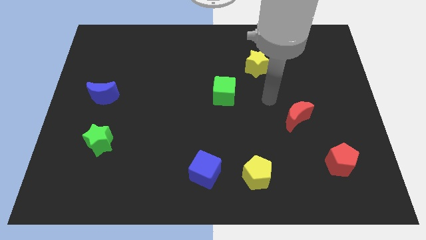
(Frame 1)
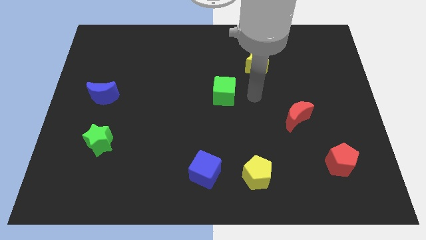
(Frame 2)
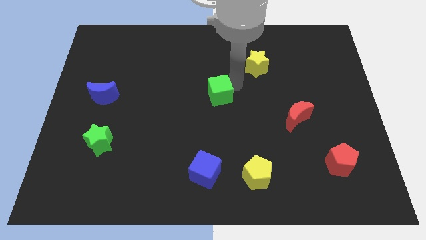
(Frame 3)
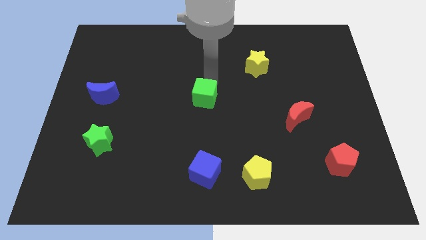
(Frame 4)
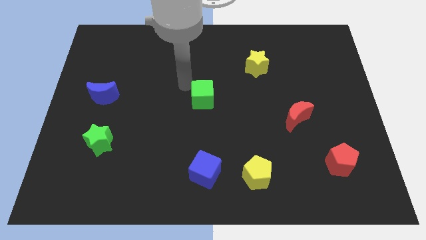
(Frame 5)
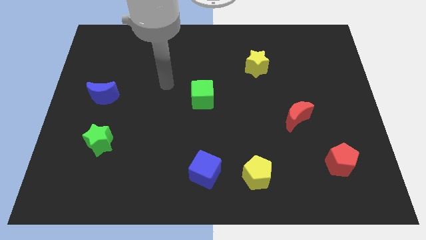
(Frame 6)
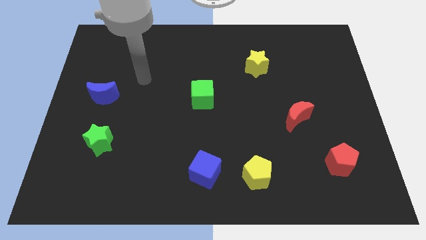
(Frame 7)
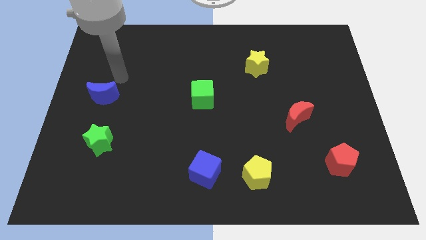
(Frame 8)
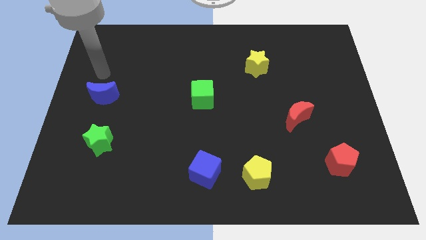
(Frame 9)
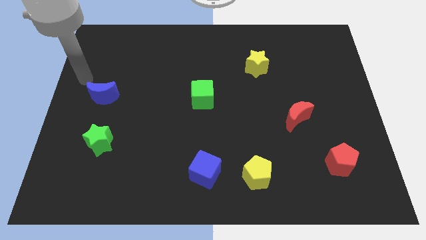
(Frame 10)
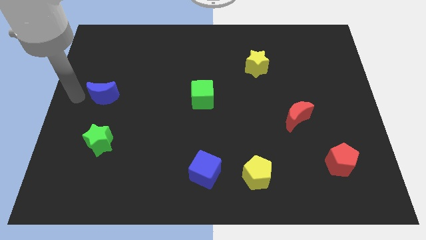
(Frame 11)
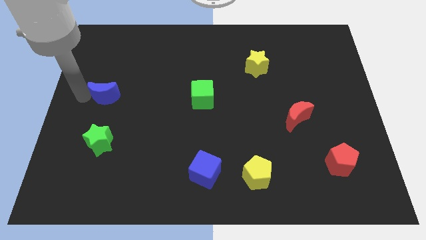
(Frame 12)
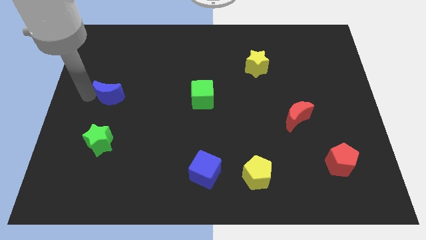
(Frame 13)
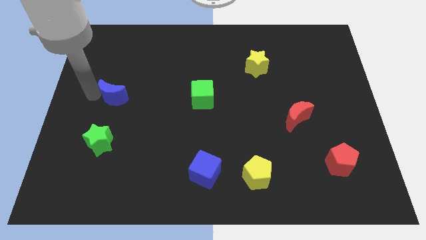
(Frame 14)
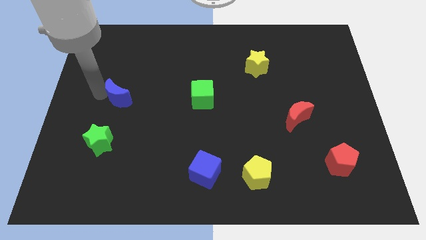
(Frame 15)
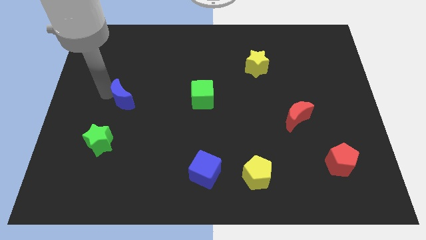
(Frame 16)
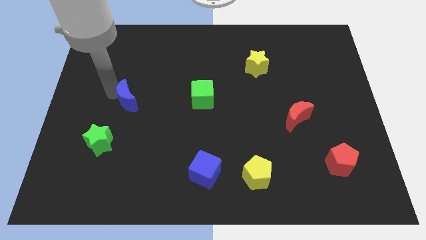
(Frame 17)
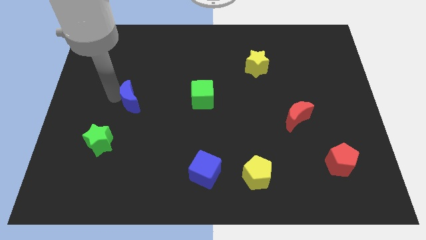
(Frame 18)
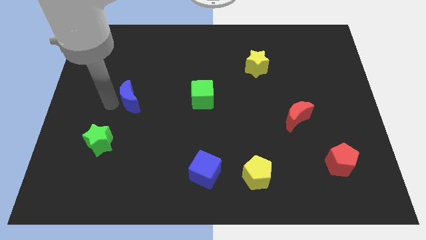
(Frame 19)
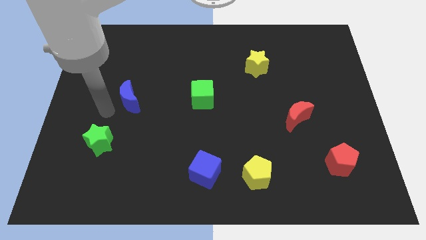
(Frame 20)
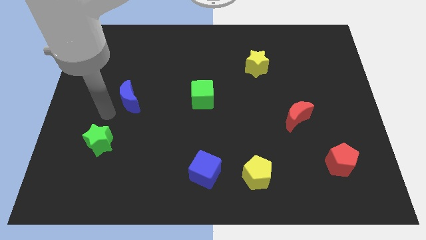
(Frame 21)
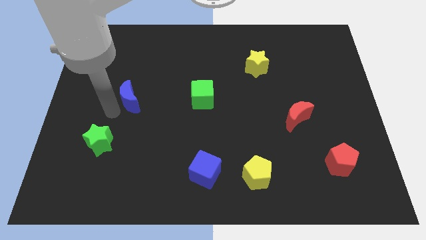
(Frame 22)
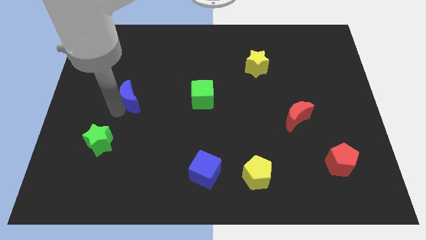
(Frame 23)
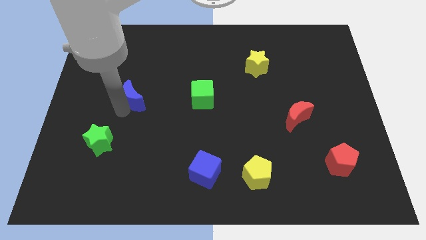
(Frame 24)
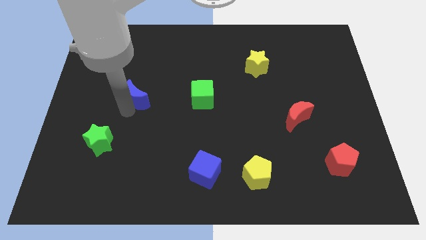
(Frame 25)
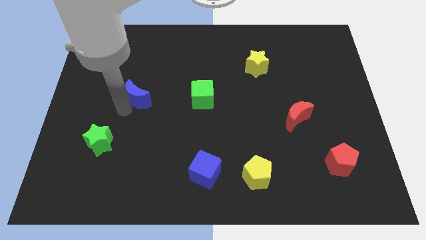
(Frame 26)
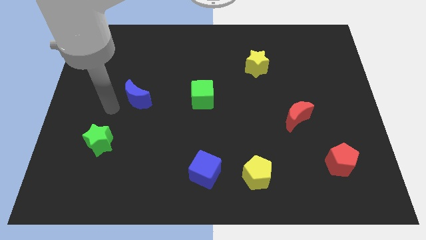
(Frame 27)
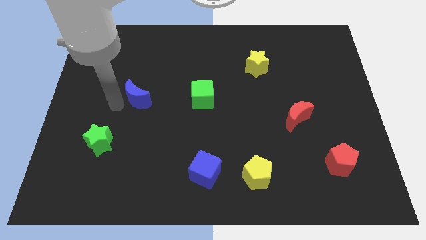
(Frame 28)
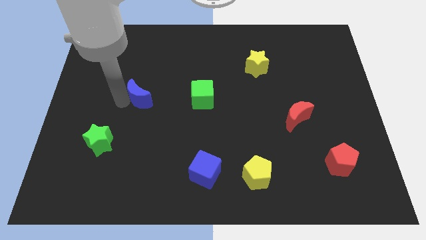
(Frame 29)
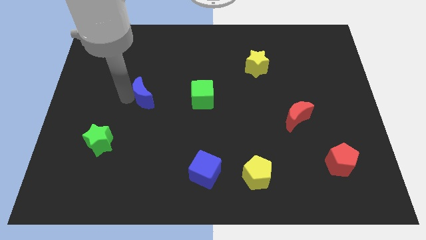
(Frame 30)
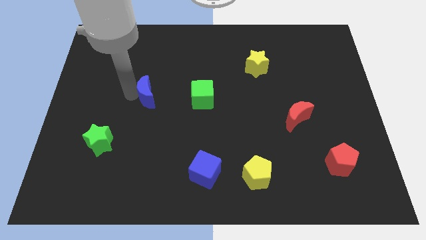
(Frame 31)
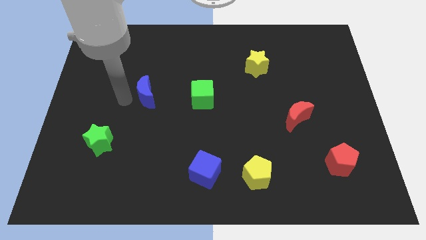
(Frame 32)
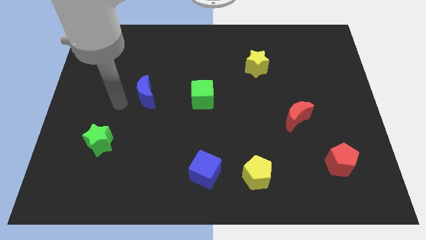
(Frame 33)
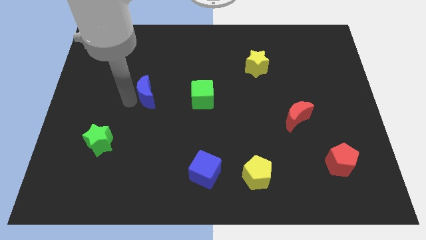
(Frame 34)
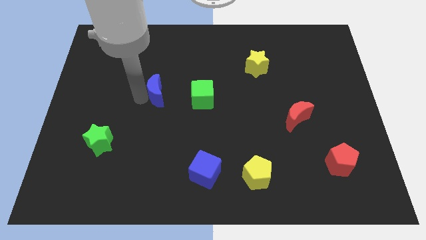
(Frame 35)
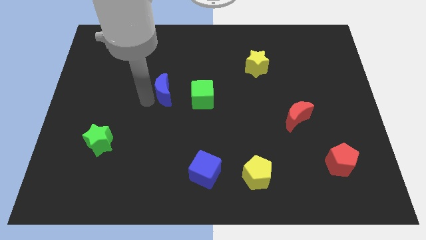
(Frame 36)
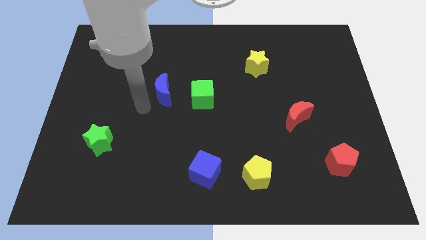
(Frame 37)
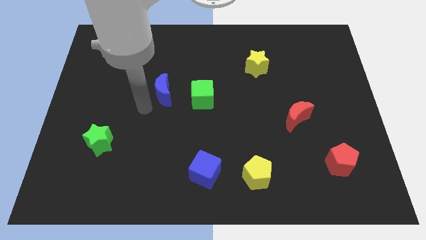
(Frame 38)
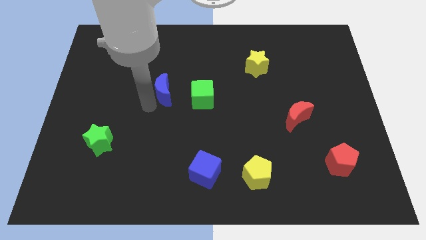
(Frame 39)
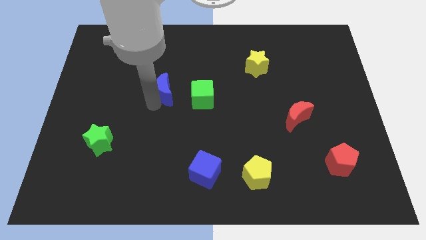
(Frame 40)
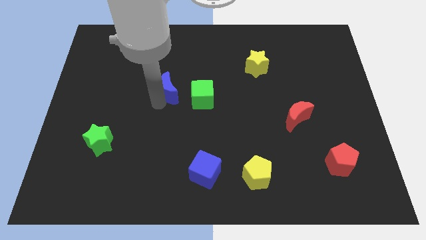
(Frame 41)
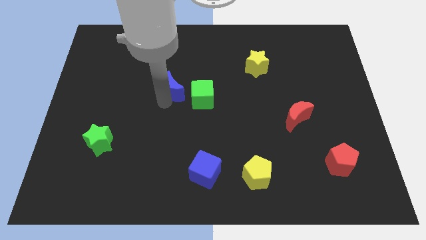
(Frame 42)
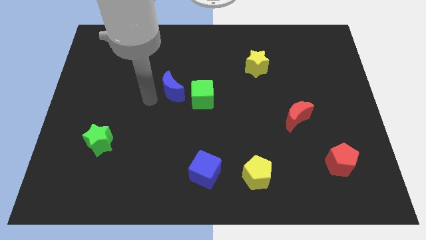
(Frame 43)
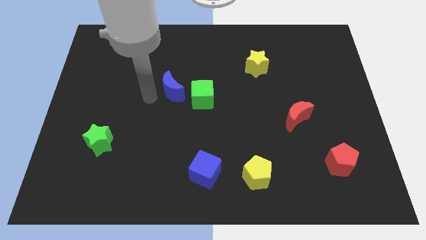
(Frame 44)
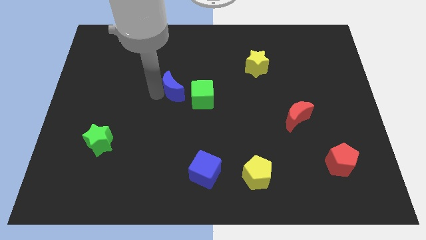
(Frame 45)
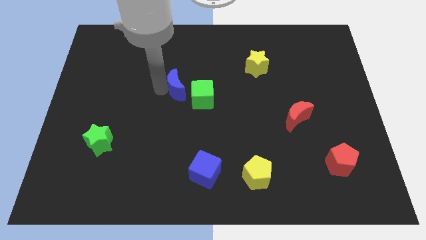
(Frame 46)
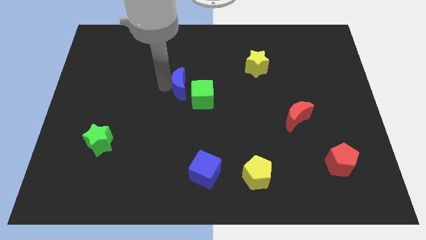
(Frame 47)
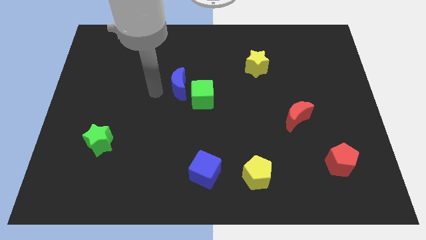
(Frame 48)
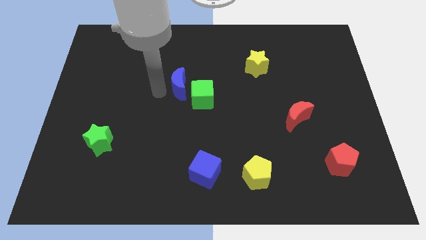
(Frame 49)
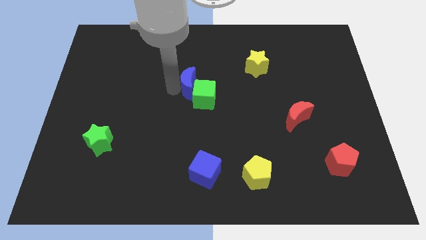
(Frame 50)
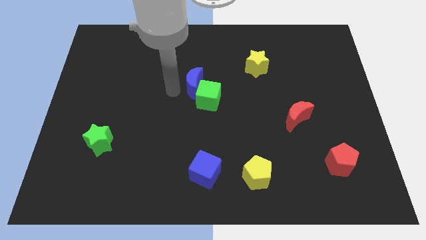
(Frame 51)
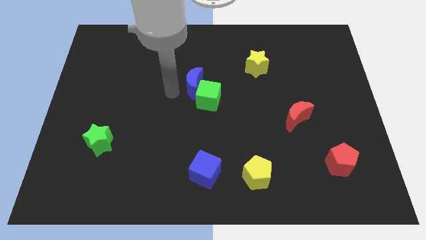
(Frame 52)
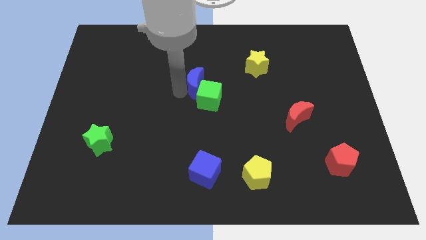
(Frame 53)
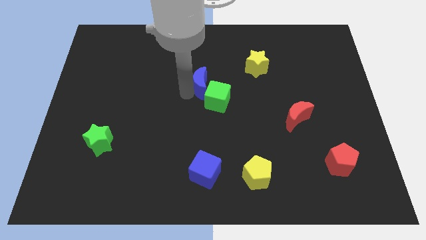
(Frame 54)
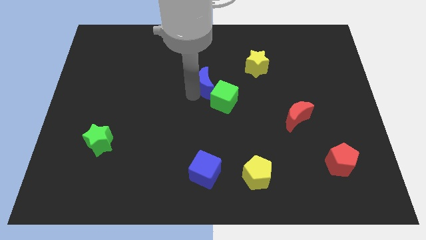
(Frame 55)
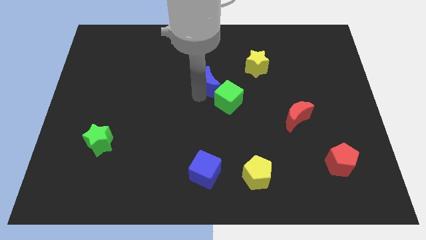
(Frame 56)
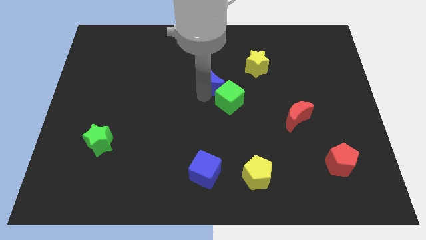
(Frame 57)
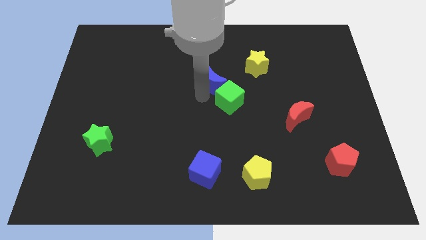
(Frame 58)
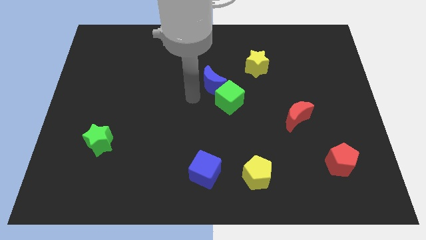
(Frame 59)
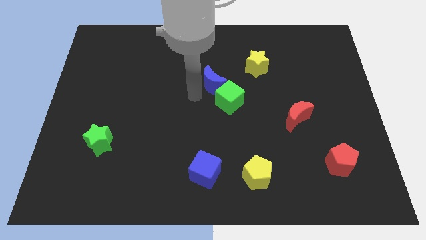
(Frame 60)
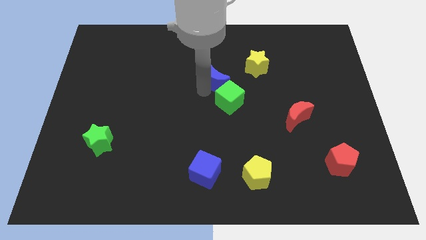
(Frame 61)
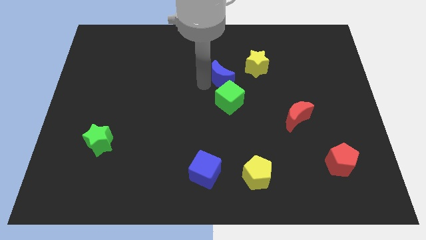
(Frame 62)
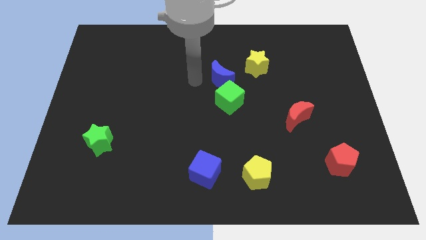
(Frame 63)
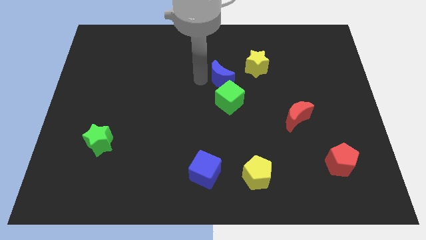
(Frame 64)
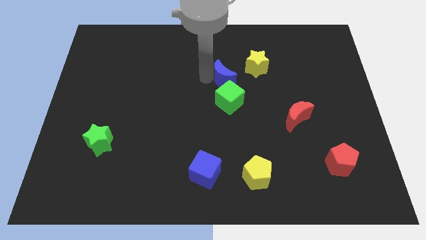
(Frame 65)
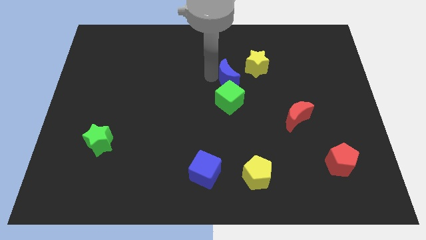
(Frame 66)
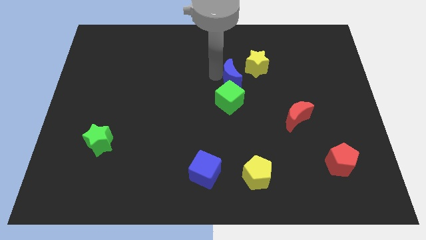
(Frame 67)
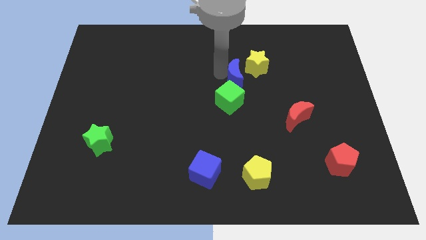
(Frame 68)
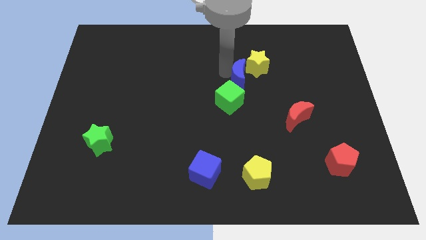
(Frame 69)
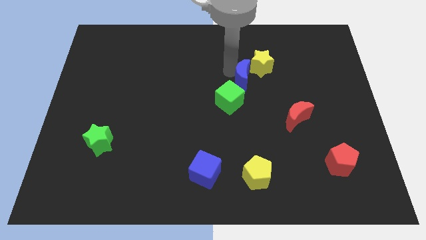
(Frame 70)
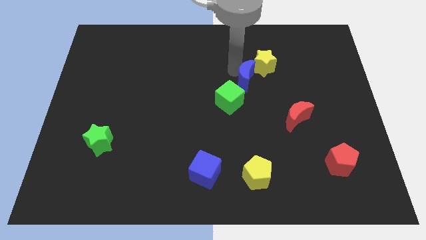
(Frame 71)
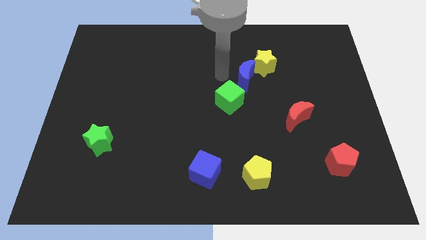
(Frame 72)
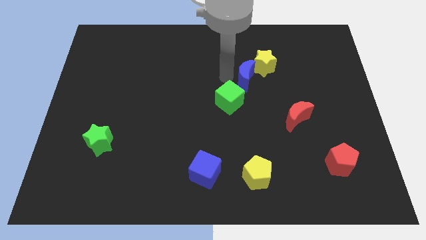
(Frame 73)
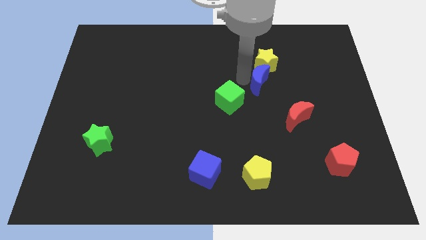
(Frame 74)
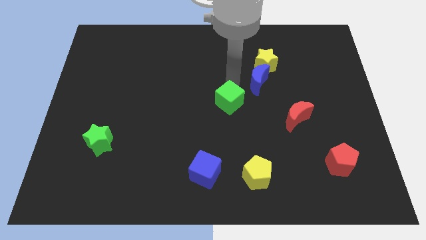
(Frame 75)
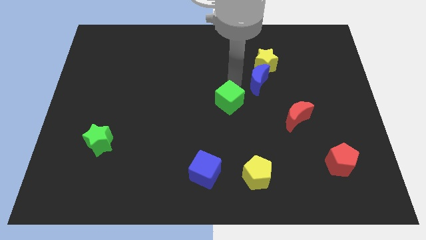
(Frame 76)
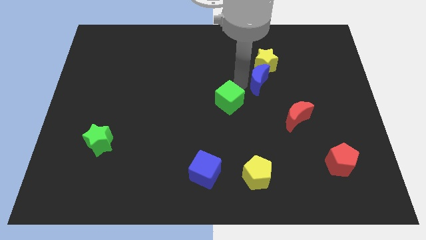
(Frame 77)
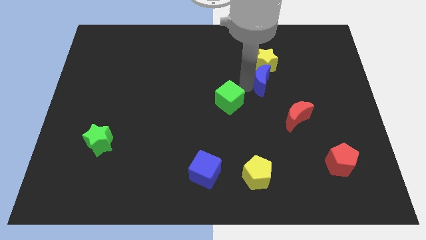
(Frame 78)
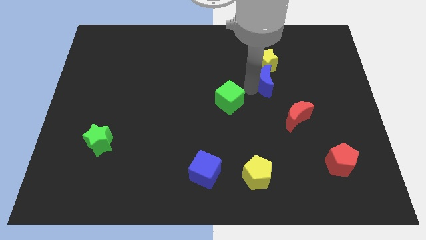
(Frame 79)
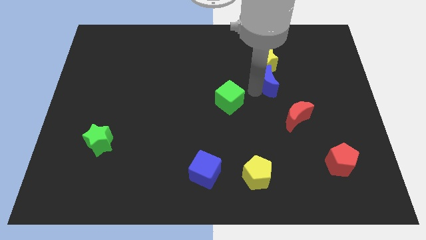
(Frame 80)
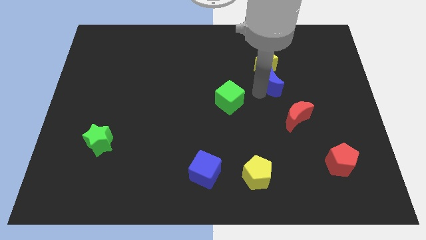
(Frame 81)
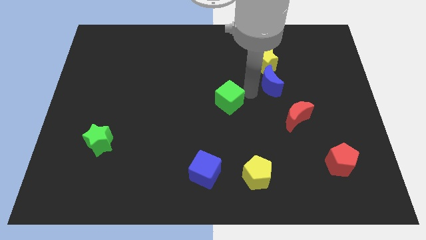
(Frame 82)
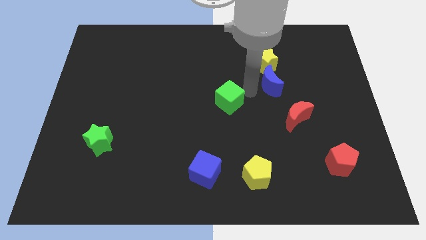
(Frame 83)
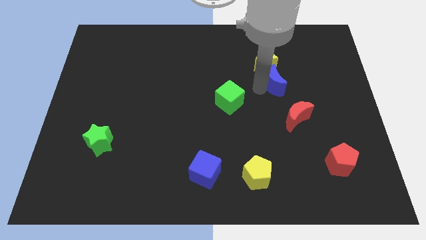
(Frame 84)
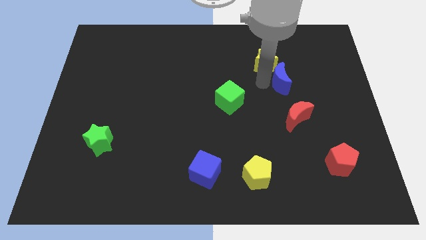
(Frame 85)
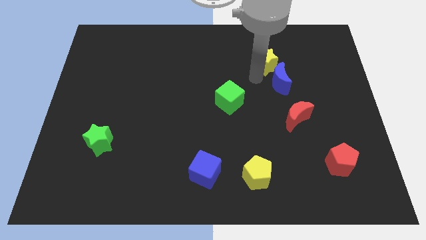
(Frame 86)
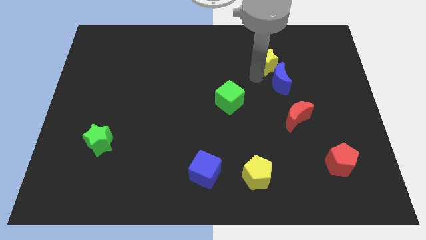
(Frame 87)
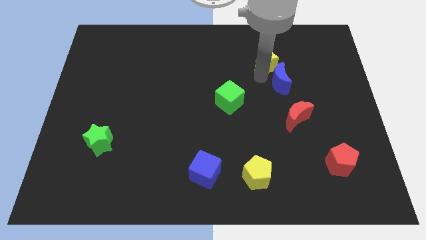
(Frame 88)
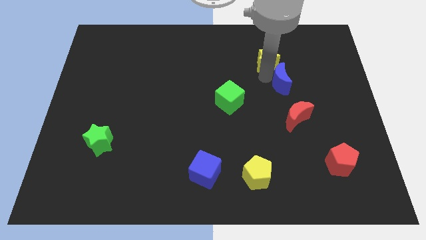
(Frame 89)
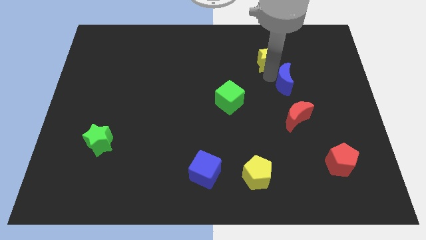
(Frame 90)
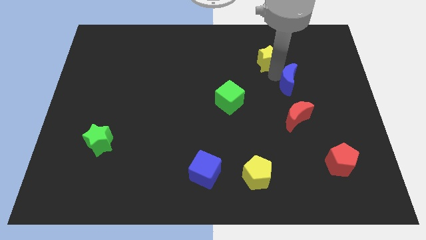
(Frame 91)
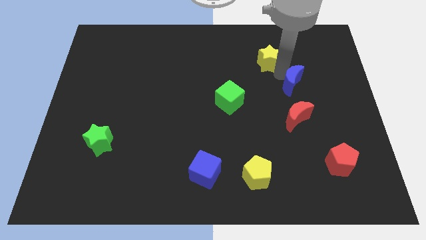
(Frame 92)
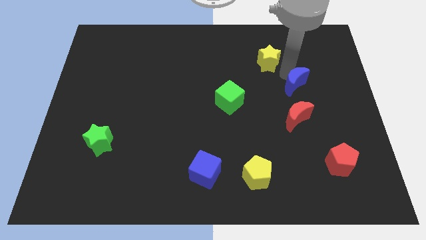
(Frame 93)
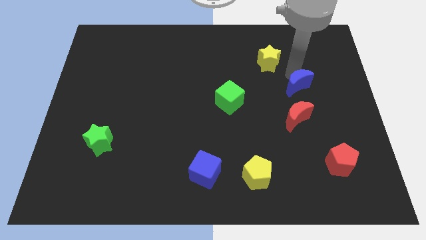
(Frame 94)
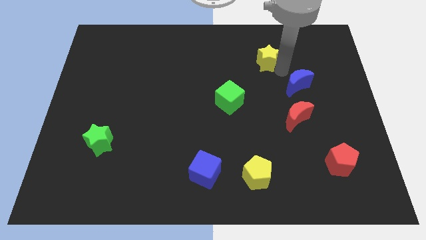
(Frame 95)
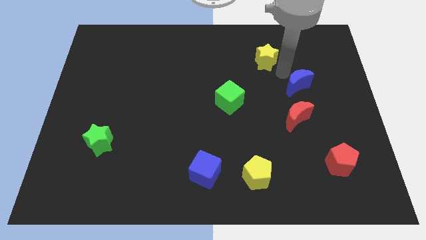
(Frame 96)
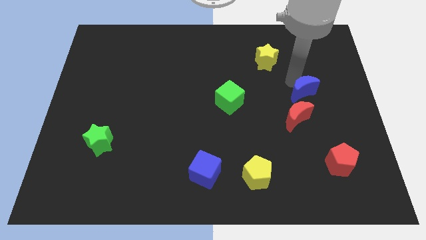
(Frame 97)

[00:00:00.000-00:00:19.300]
push the blue moon diagonally up and to the right of the red moon
